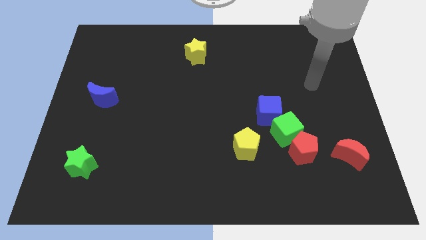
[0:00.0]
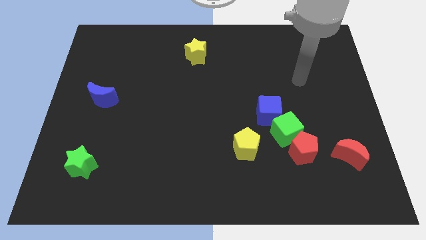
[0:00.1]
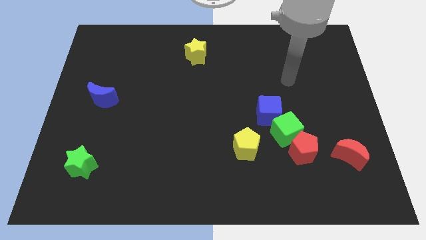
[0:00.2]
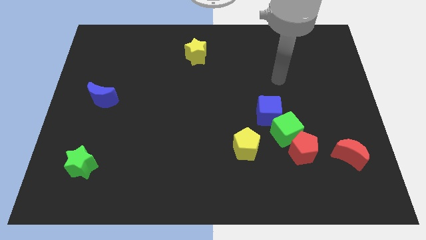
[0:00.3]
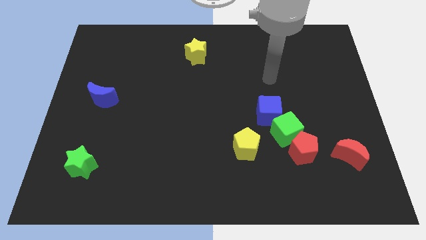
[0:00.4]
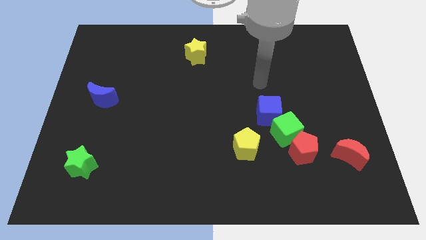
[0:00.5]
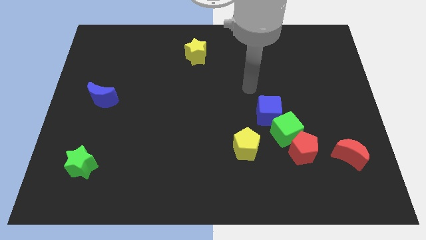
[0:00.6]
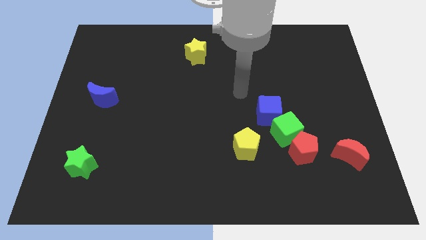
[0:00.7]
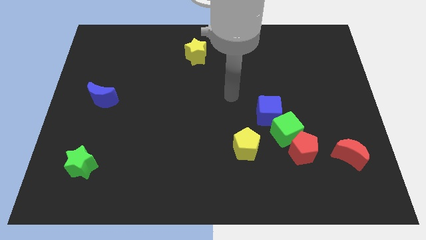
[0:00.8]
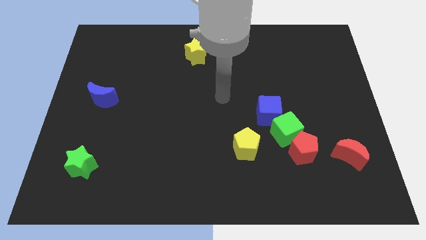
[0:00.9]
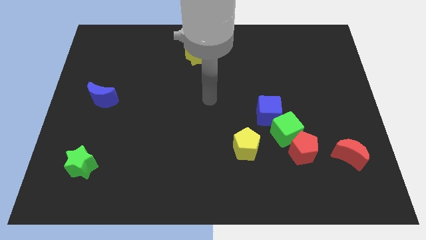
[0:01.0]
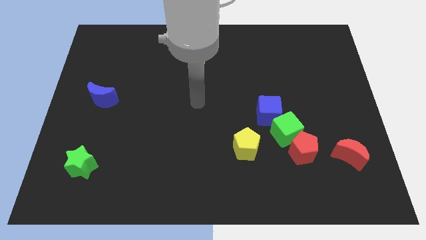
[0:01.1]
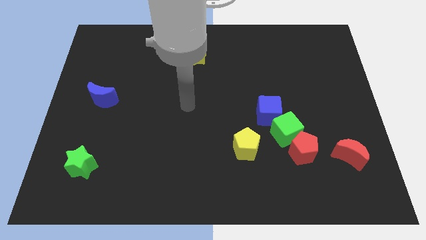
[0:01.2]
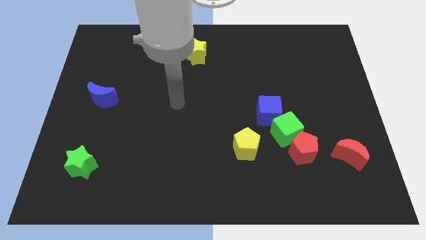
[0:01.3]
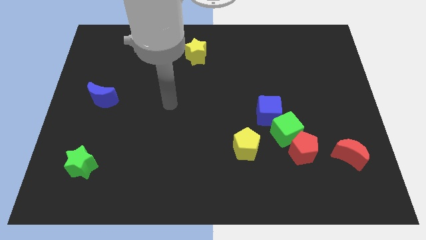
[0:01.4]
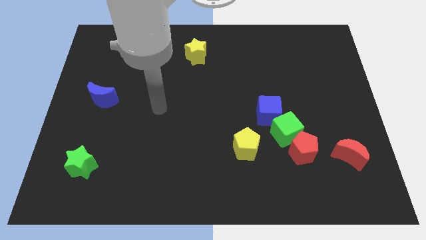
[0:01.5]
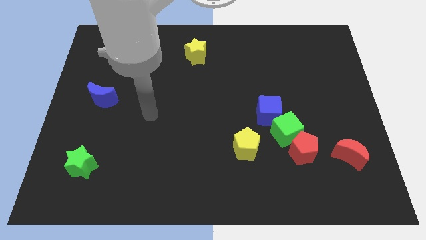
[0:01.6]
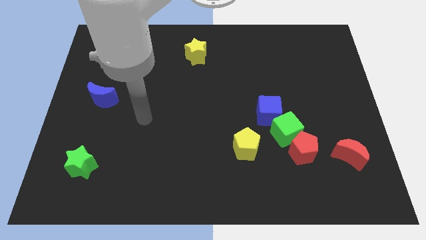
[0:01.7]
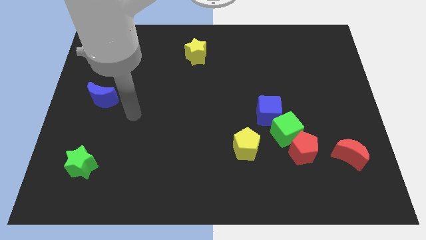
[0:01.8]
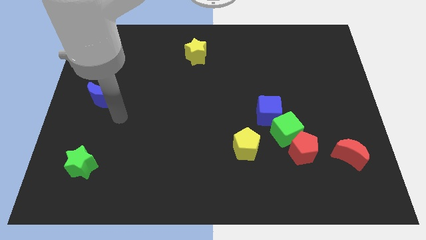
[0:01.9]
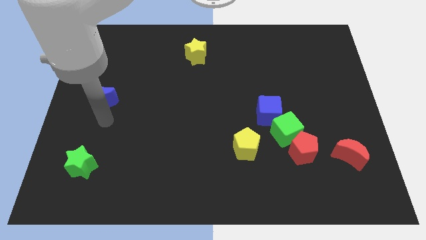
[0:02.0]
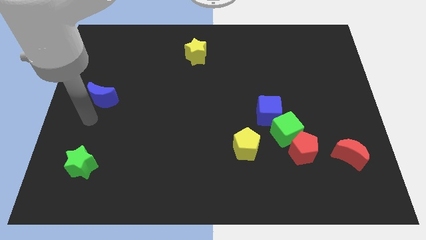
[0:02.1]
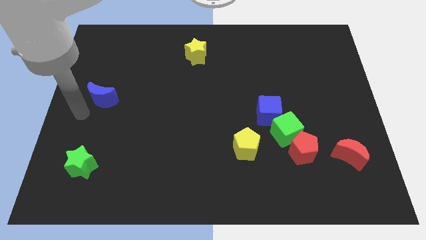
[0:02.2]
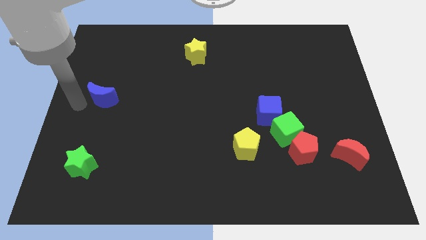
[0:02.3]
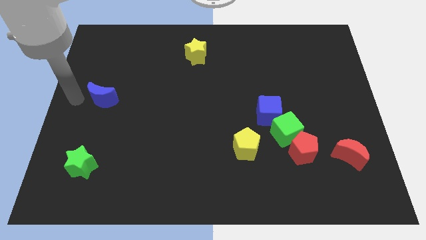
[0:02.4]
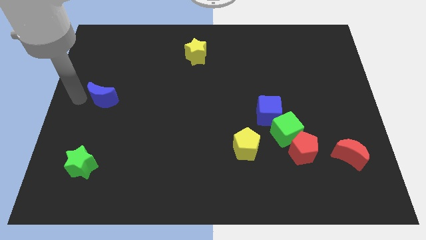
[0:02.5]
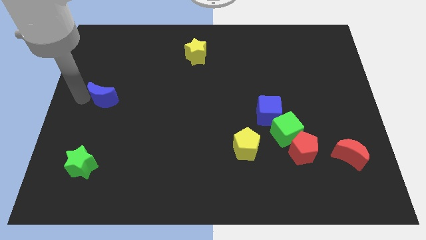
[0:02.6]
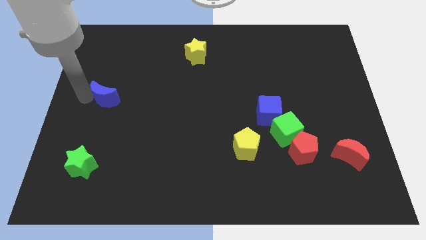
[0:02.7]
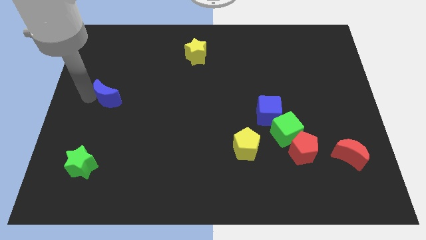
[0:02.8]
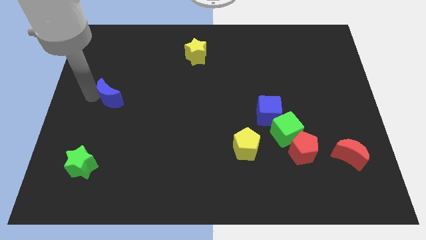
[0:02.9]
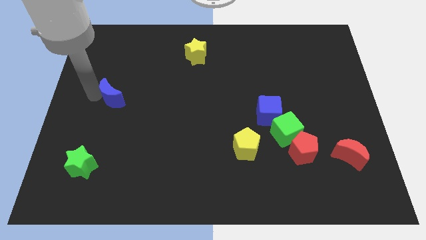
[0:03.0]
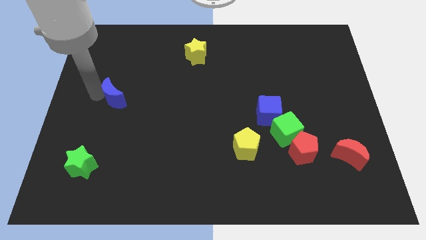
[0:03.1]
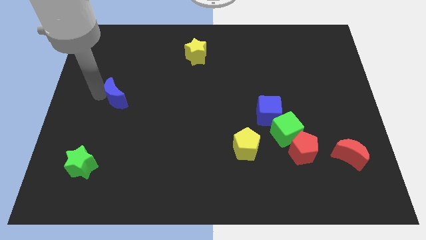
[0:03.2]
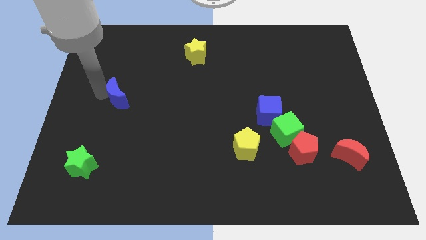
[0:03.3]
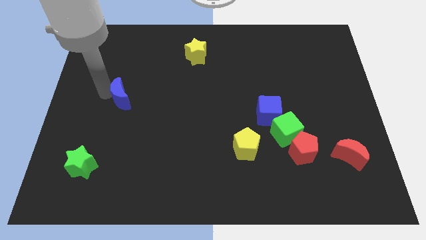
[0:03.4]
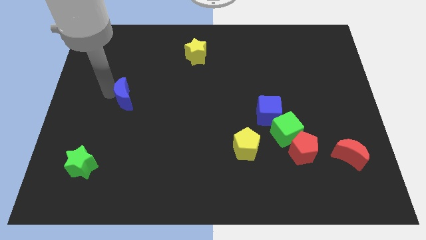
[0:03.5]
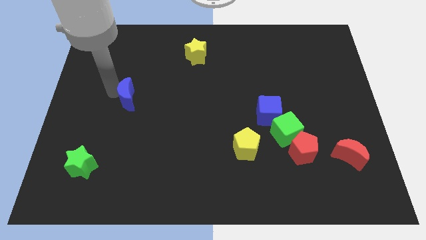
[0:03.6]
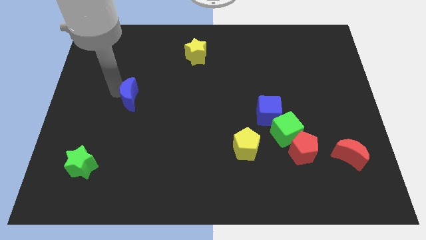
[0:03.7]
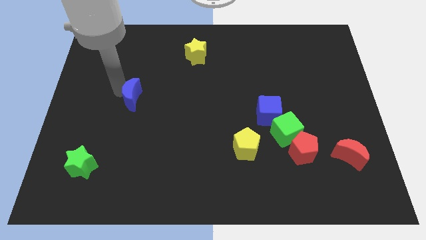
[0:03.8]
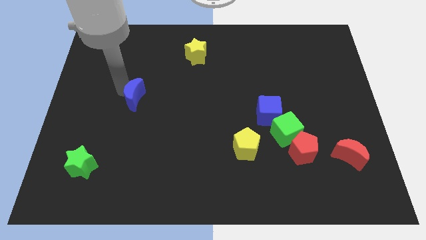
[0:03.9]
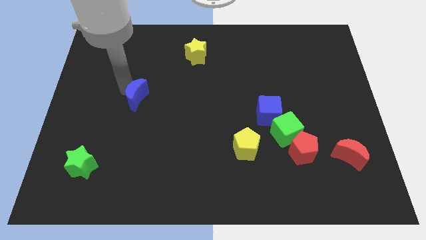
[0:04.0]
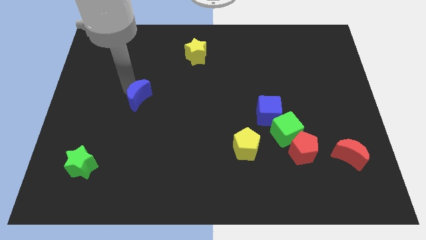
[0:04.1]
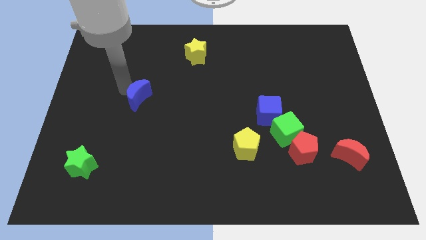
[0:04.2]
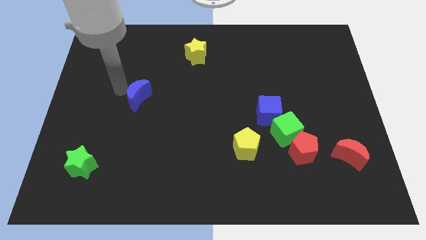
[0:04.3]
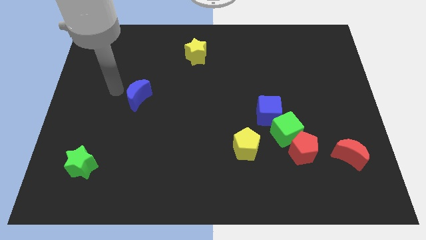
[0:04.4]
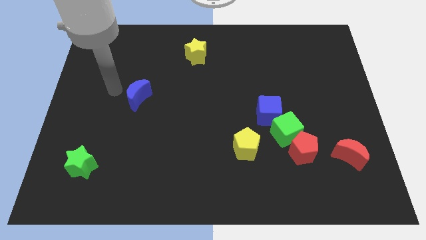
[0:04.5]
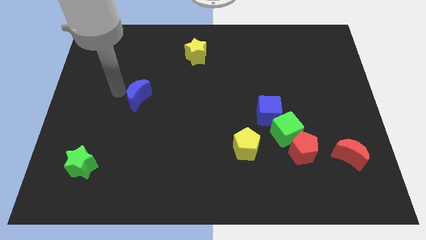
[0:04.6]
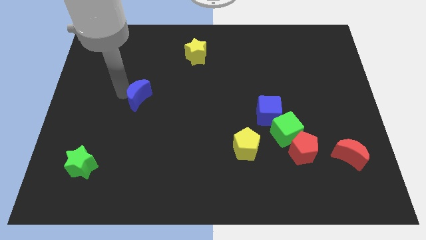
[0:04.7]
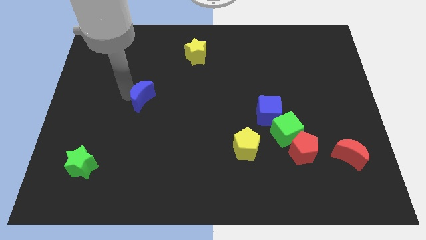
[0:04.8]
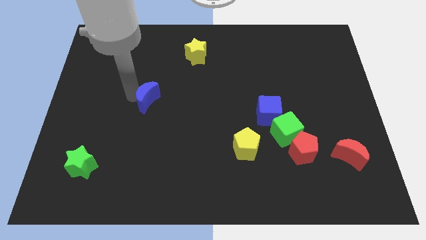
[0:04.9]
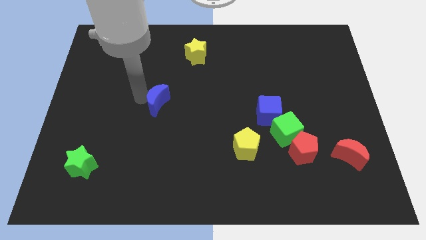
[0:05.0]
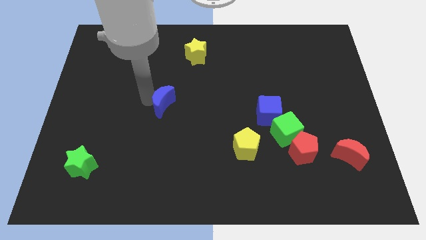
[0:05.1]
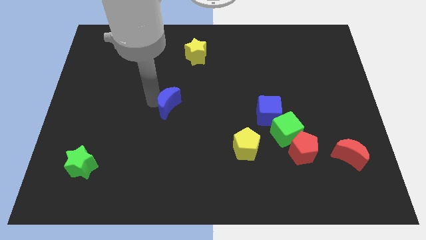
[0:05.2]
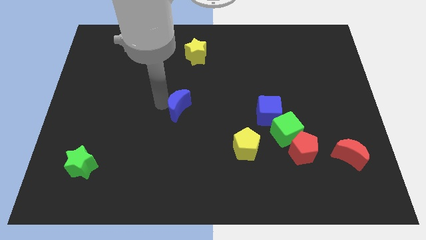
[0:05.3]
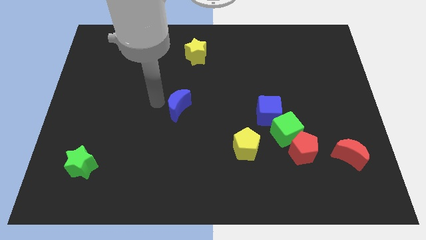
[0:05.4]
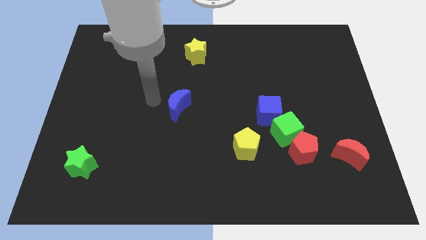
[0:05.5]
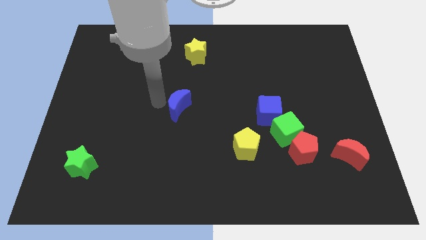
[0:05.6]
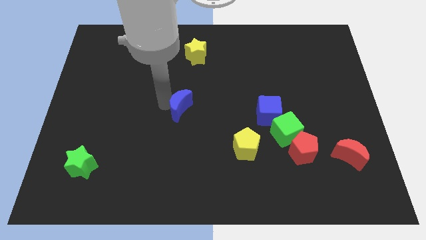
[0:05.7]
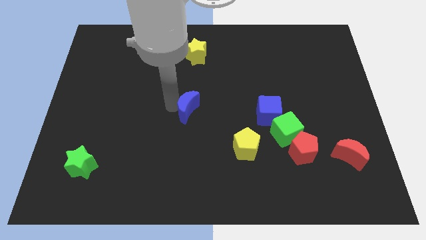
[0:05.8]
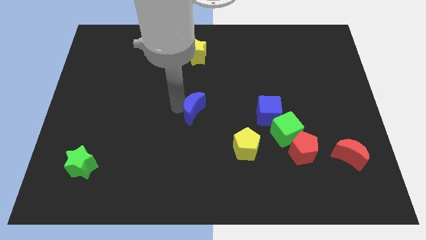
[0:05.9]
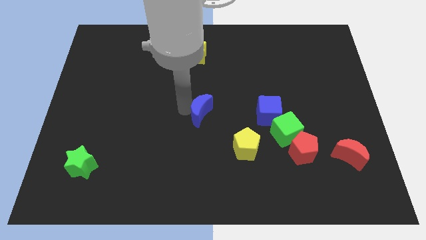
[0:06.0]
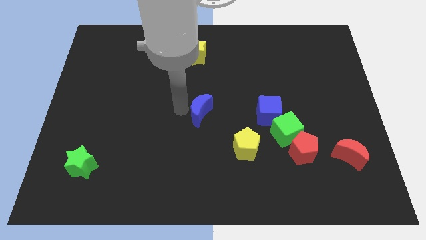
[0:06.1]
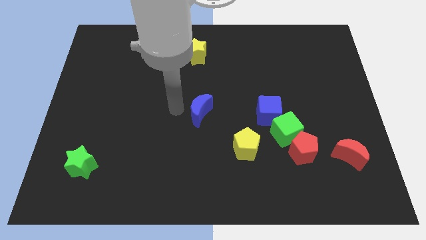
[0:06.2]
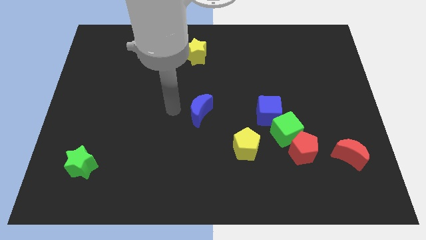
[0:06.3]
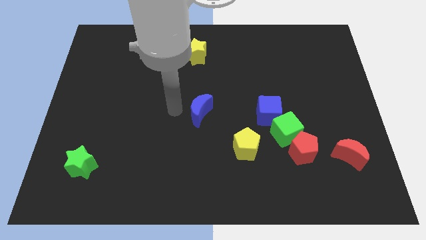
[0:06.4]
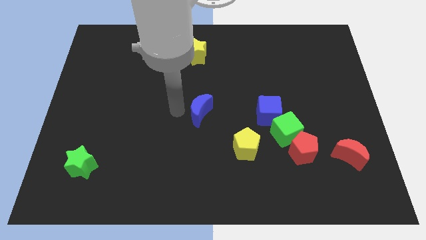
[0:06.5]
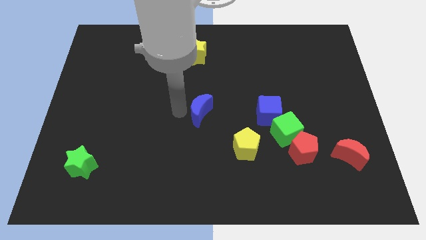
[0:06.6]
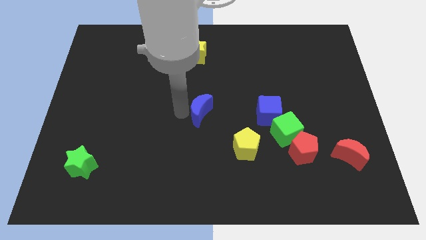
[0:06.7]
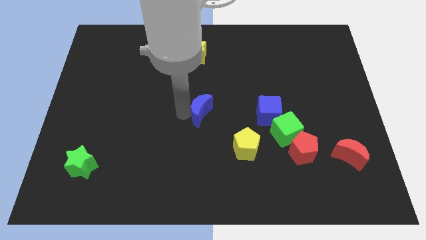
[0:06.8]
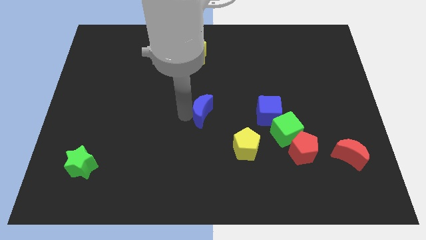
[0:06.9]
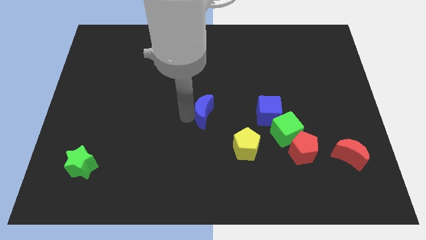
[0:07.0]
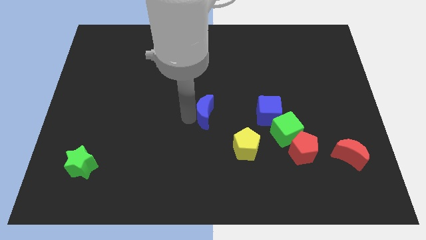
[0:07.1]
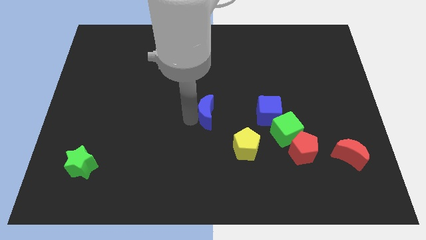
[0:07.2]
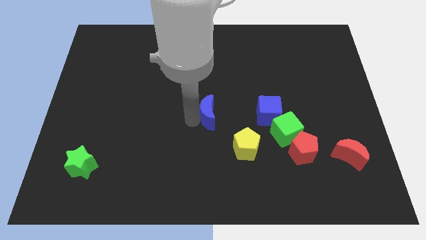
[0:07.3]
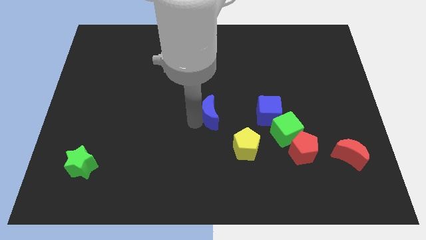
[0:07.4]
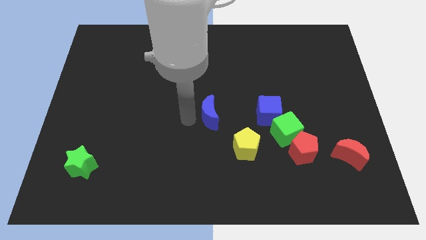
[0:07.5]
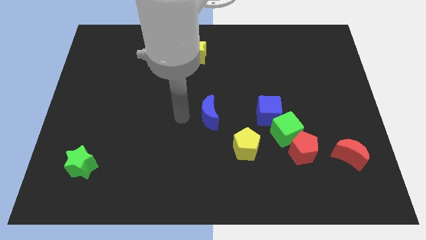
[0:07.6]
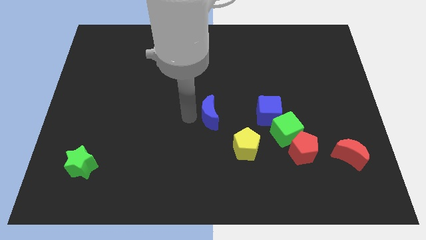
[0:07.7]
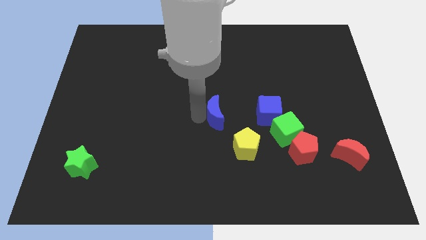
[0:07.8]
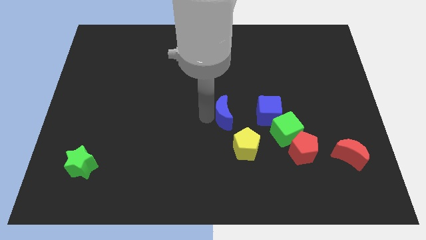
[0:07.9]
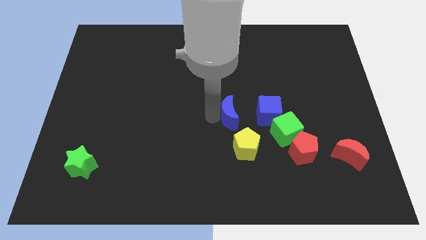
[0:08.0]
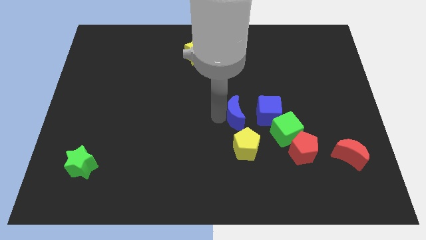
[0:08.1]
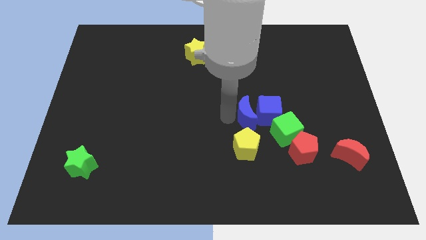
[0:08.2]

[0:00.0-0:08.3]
push the blue moon next to the blue cube
